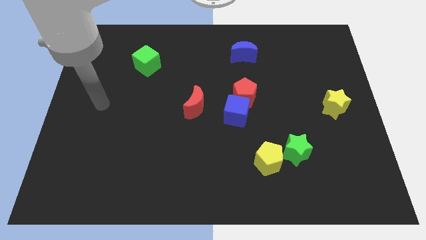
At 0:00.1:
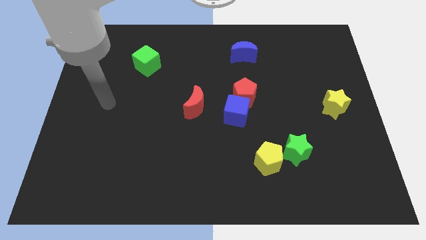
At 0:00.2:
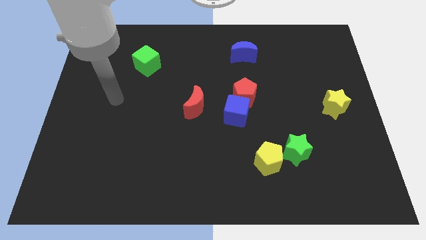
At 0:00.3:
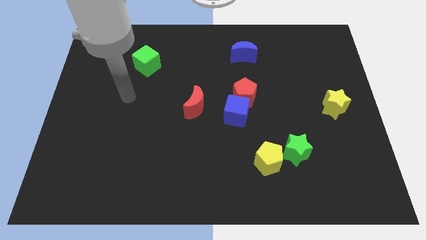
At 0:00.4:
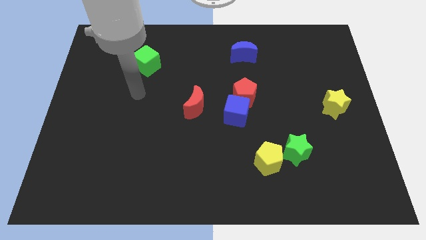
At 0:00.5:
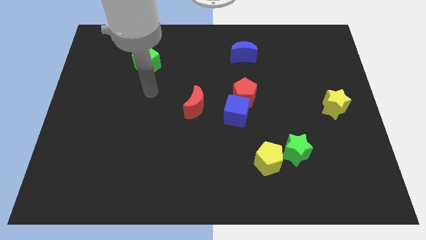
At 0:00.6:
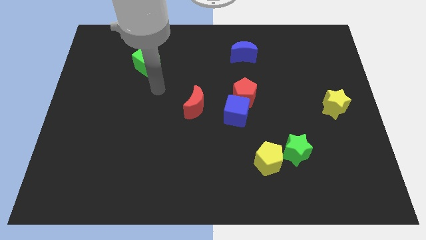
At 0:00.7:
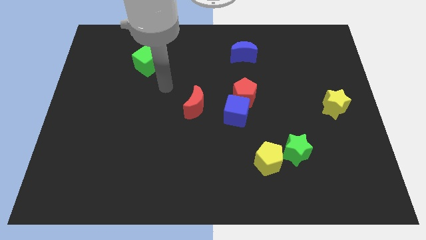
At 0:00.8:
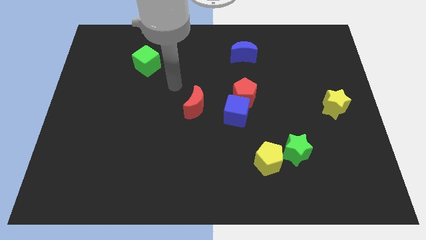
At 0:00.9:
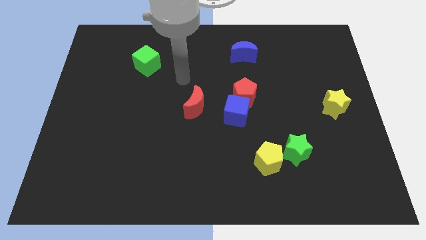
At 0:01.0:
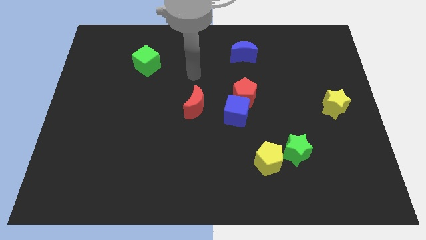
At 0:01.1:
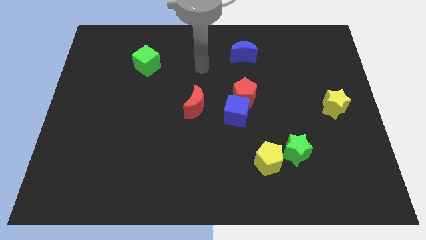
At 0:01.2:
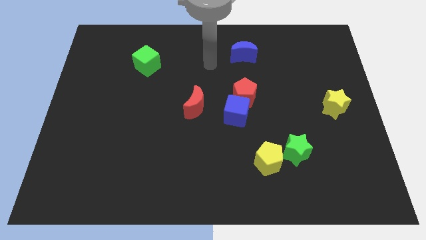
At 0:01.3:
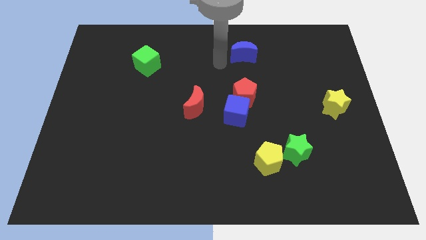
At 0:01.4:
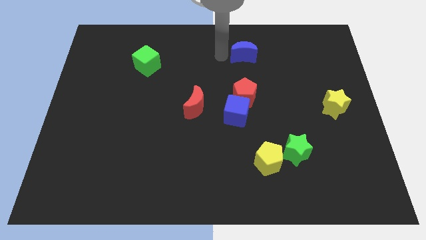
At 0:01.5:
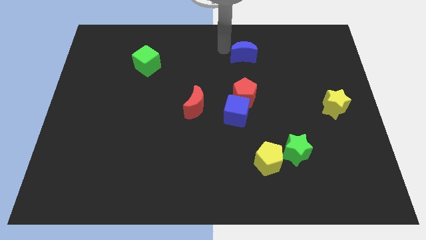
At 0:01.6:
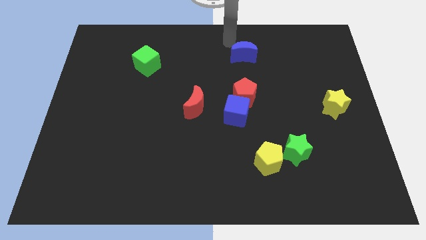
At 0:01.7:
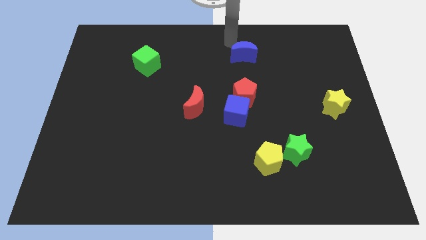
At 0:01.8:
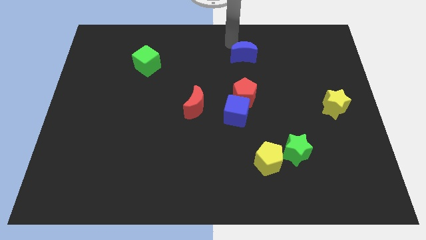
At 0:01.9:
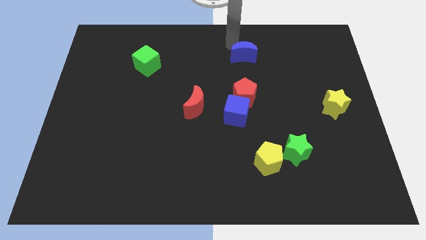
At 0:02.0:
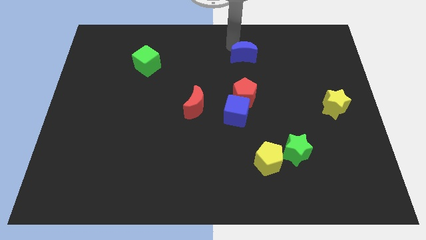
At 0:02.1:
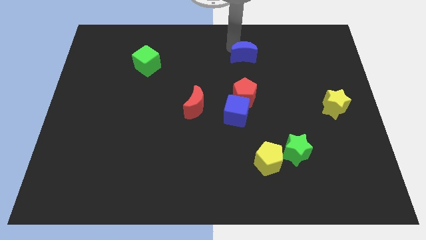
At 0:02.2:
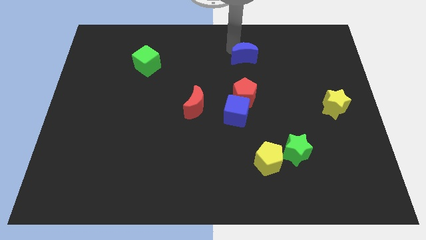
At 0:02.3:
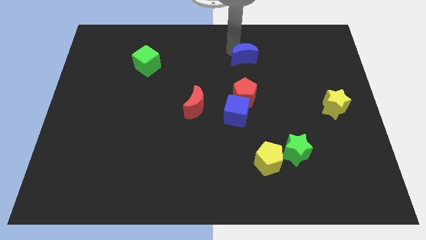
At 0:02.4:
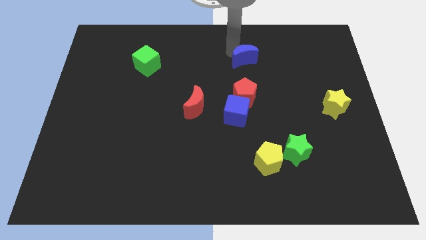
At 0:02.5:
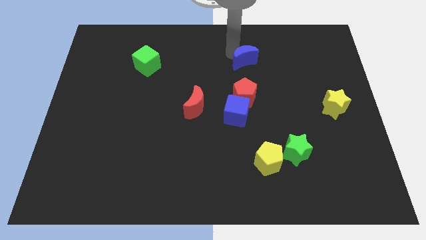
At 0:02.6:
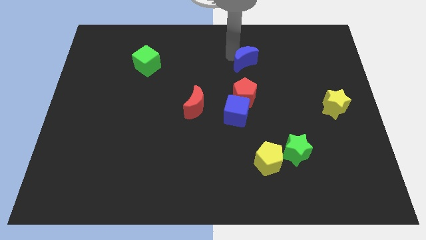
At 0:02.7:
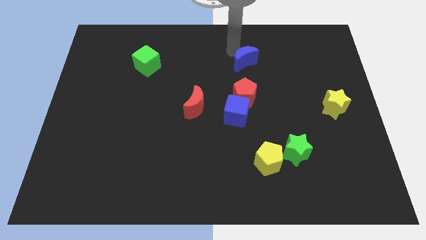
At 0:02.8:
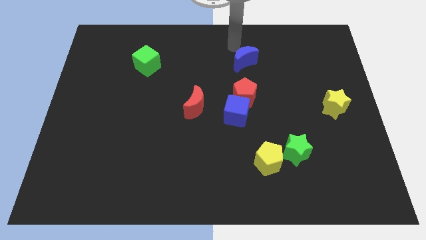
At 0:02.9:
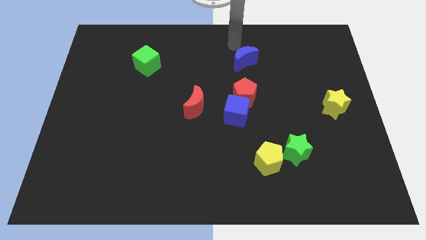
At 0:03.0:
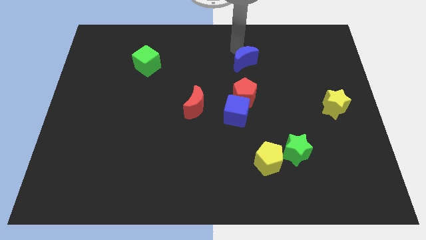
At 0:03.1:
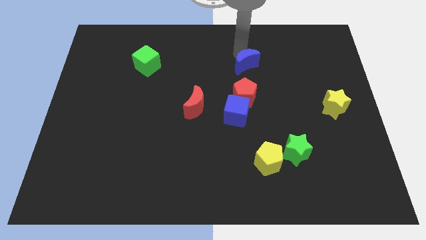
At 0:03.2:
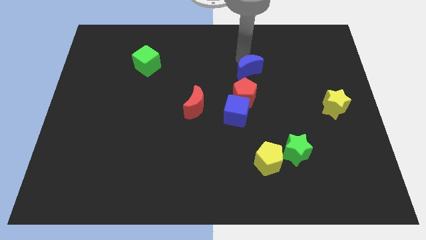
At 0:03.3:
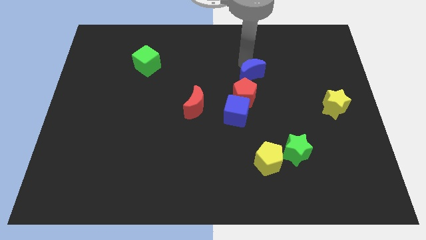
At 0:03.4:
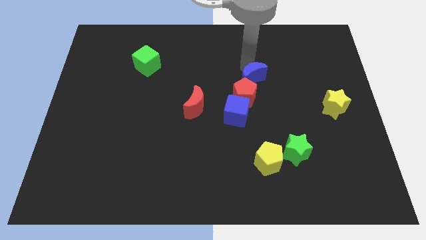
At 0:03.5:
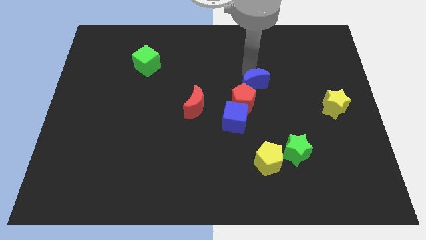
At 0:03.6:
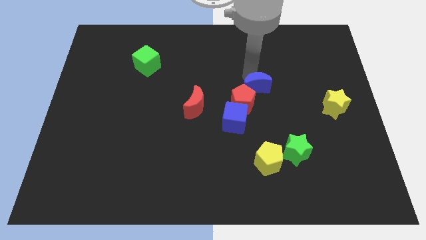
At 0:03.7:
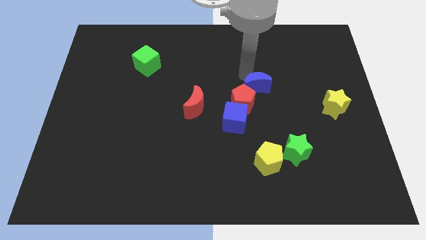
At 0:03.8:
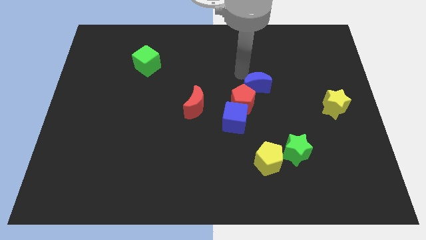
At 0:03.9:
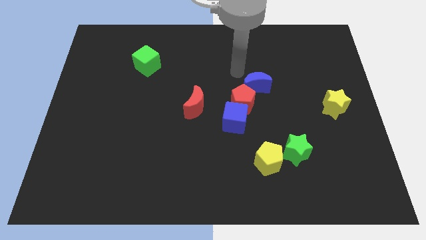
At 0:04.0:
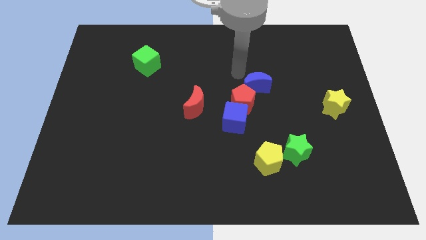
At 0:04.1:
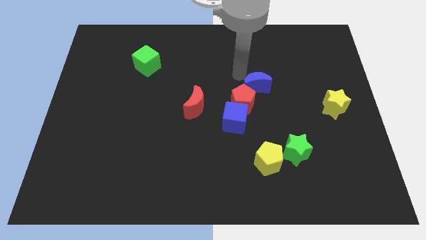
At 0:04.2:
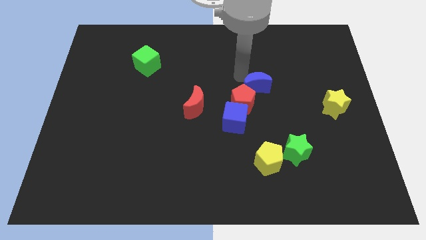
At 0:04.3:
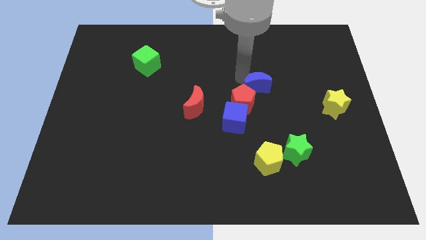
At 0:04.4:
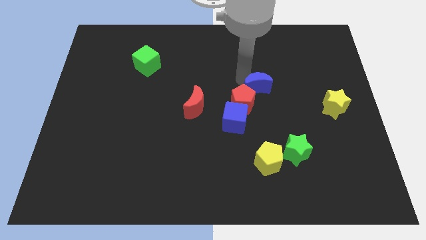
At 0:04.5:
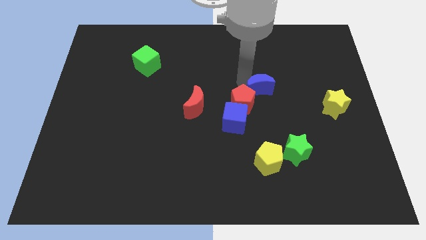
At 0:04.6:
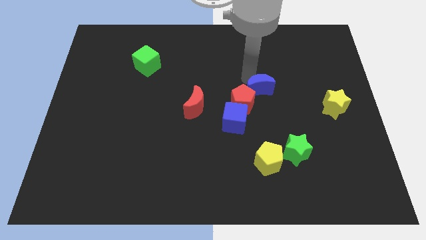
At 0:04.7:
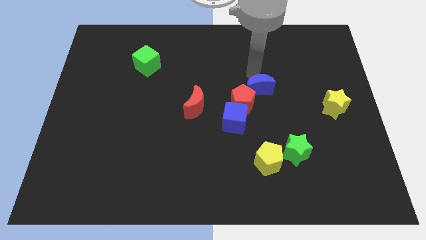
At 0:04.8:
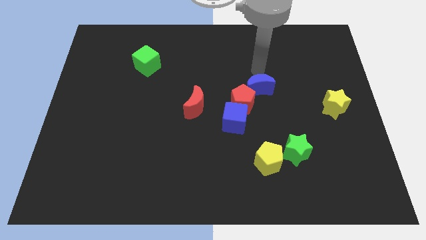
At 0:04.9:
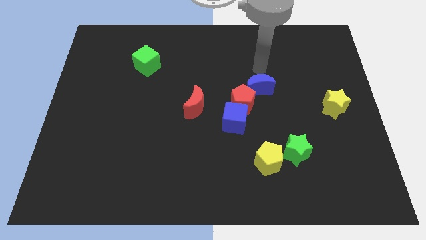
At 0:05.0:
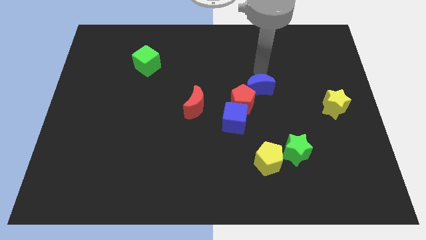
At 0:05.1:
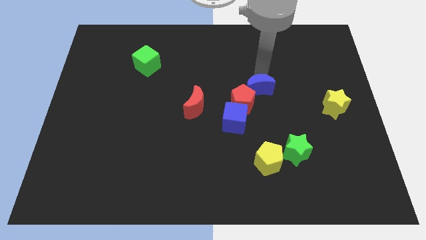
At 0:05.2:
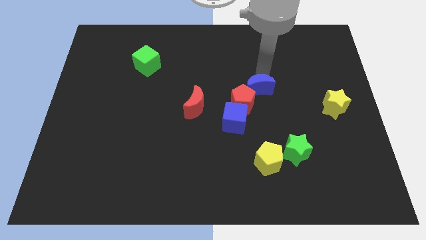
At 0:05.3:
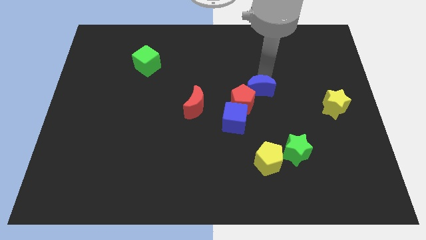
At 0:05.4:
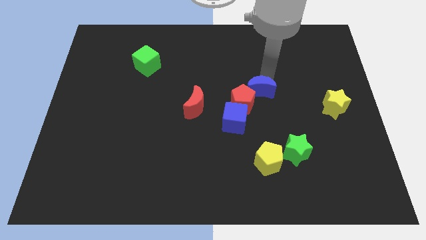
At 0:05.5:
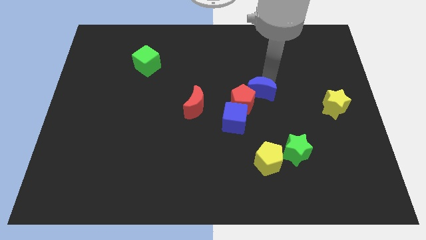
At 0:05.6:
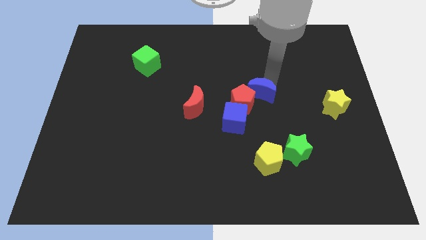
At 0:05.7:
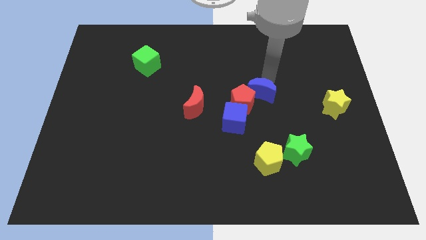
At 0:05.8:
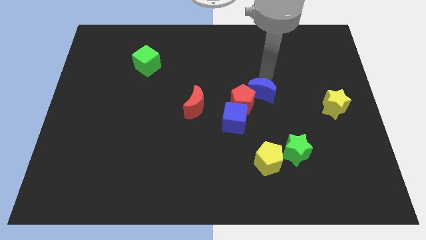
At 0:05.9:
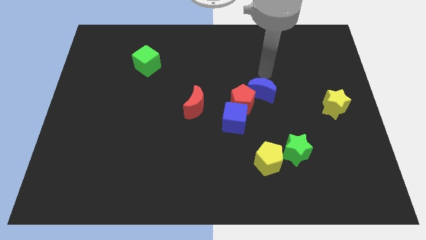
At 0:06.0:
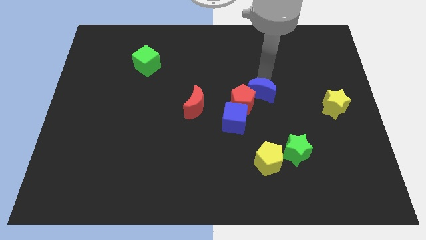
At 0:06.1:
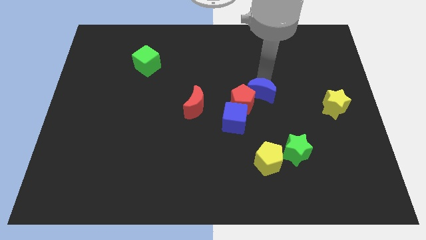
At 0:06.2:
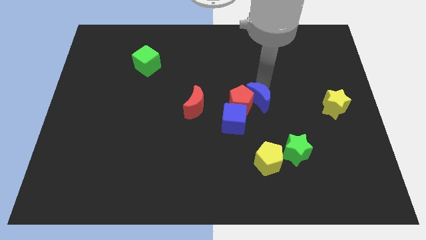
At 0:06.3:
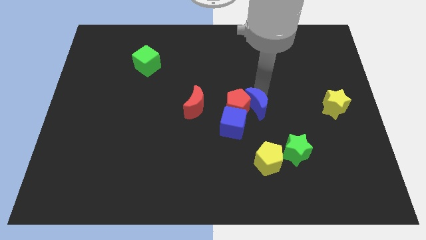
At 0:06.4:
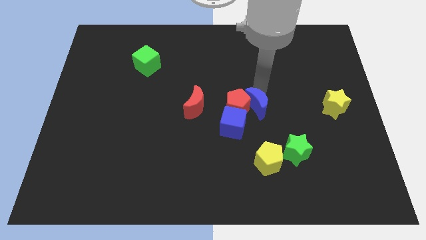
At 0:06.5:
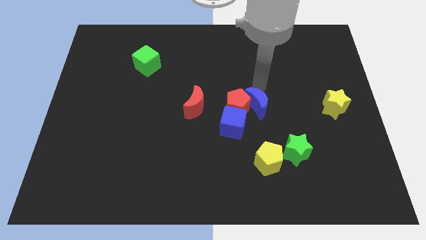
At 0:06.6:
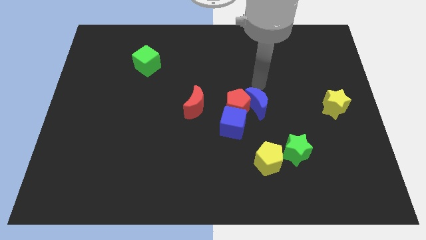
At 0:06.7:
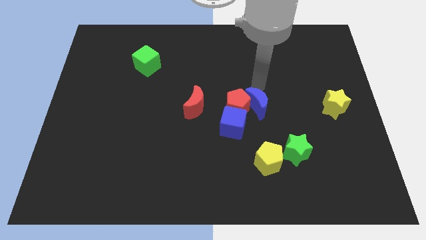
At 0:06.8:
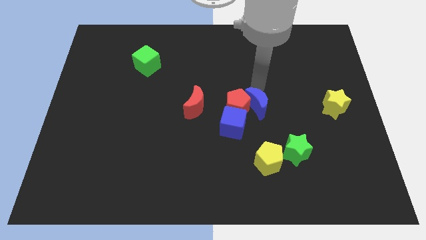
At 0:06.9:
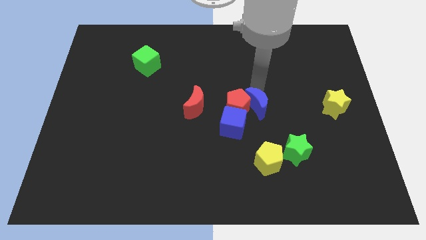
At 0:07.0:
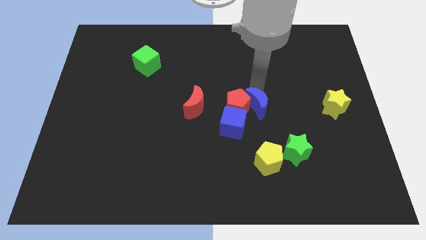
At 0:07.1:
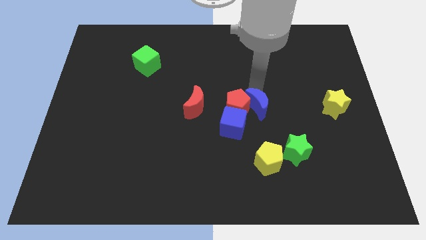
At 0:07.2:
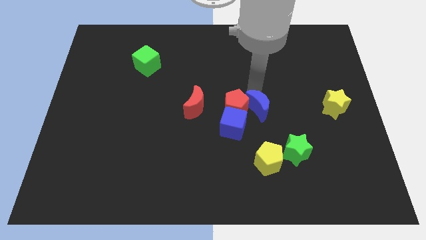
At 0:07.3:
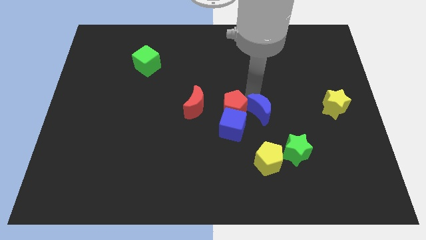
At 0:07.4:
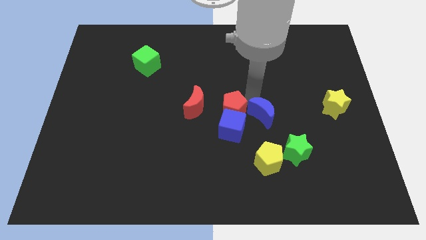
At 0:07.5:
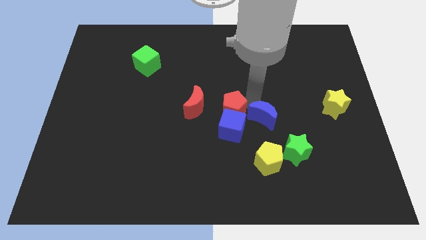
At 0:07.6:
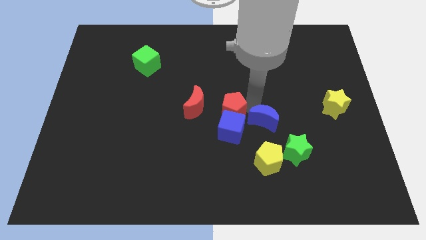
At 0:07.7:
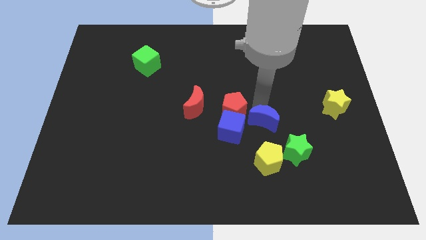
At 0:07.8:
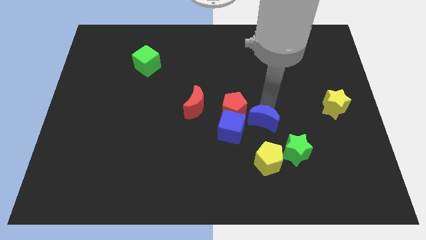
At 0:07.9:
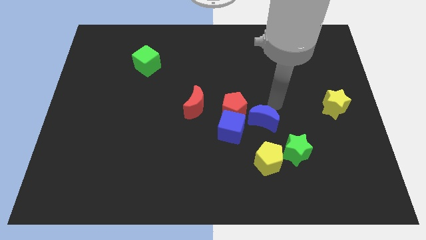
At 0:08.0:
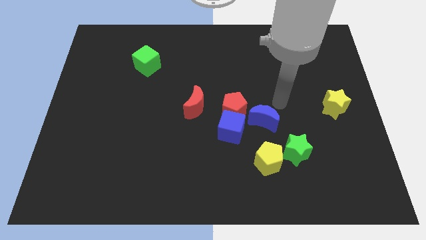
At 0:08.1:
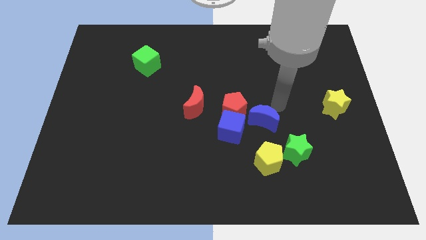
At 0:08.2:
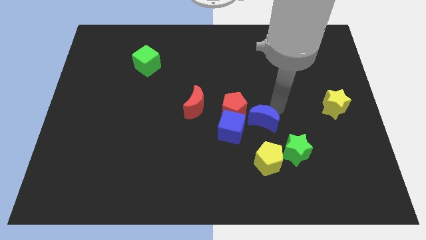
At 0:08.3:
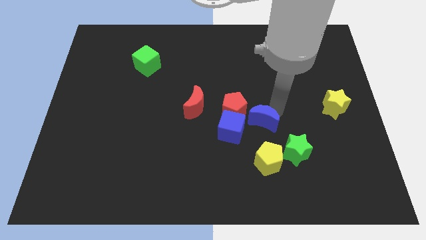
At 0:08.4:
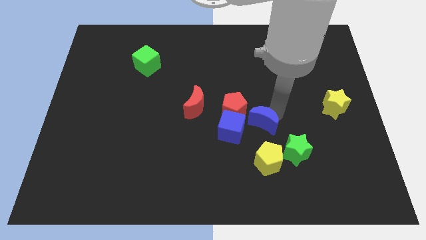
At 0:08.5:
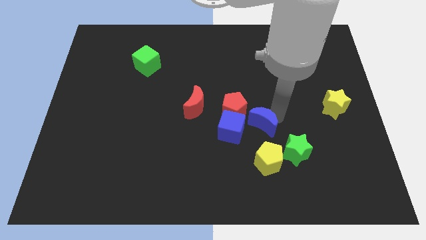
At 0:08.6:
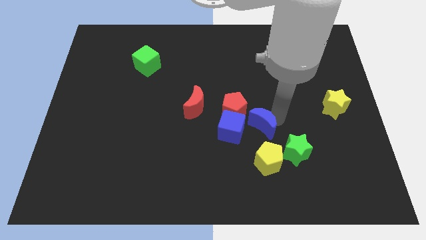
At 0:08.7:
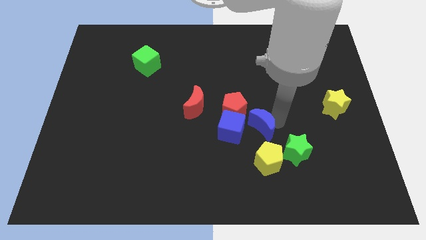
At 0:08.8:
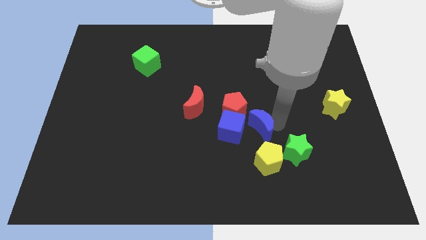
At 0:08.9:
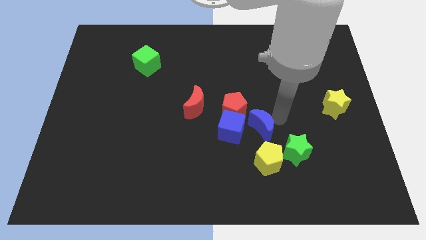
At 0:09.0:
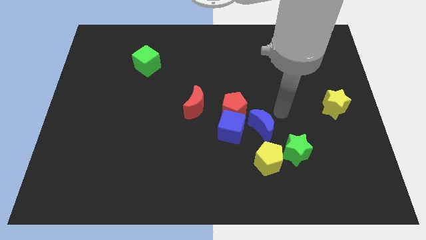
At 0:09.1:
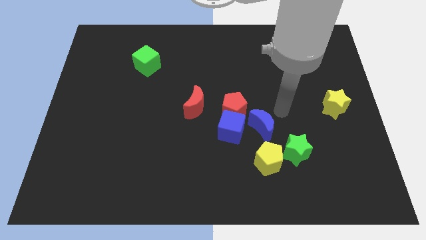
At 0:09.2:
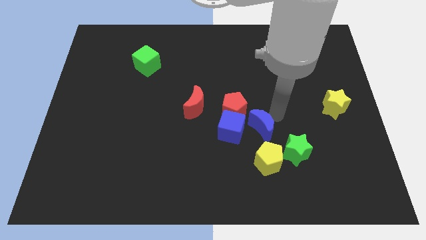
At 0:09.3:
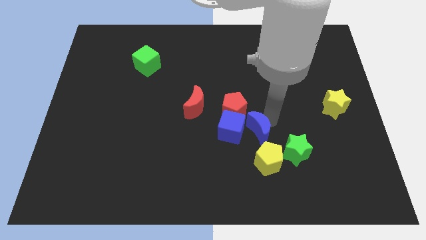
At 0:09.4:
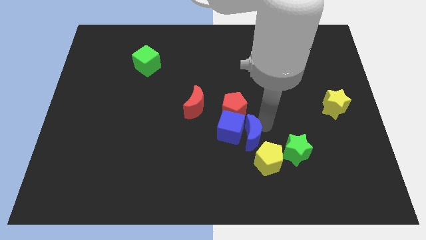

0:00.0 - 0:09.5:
slide the blue moon to the bottom of the red pentagon
